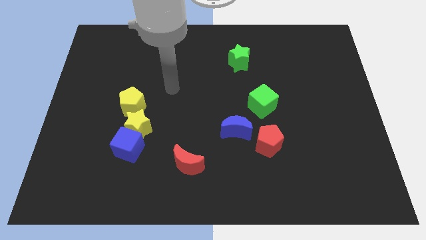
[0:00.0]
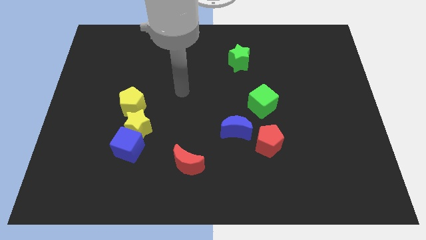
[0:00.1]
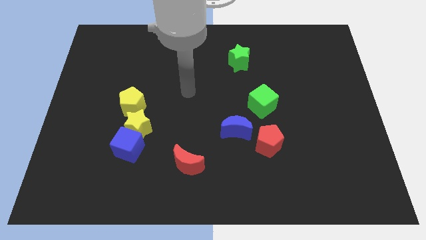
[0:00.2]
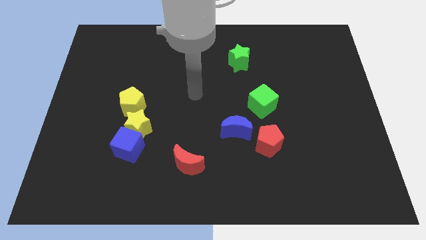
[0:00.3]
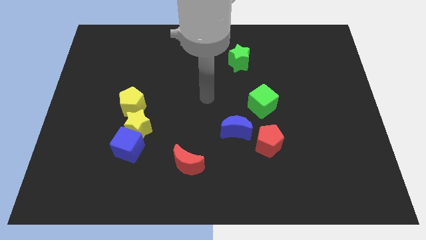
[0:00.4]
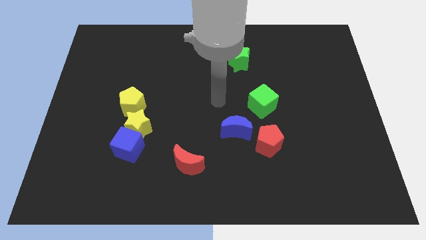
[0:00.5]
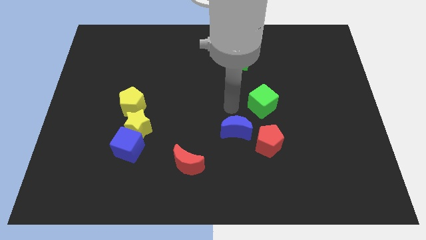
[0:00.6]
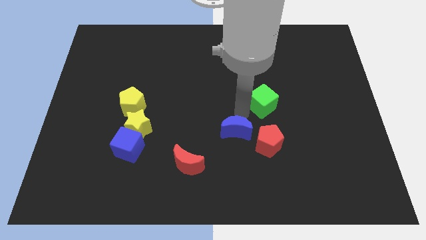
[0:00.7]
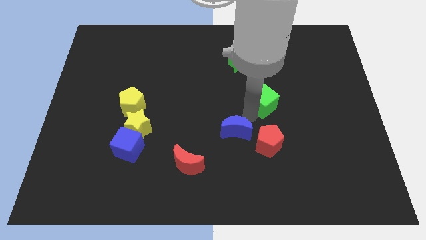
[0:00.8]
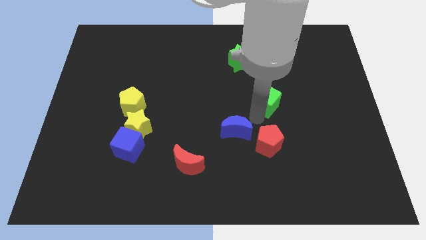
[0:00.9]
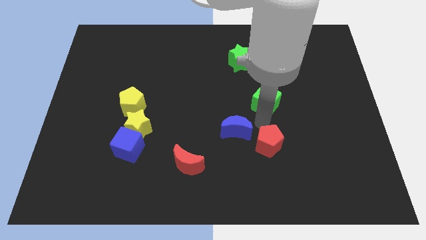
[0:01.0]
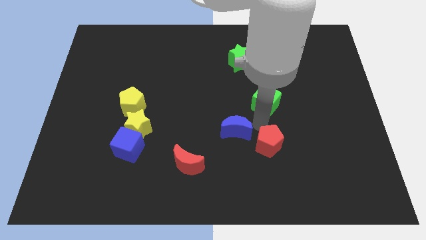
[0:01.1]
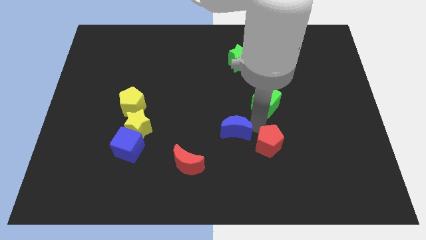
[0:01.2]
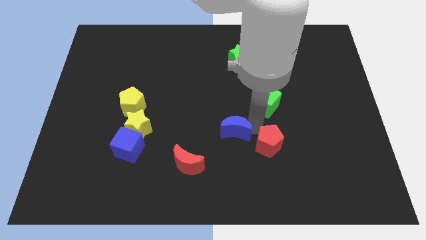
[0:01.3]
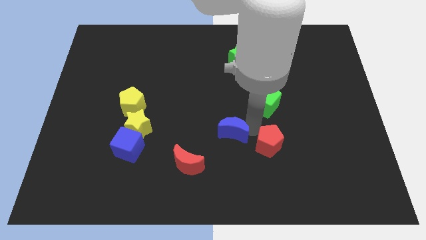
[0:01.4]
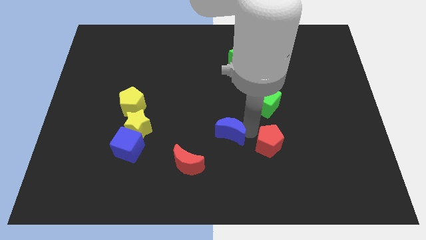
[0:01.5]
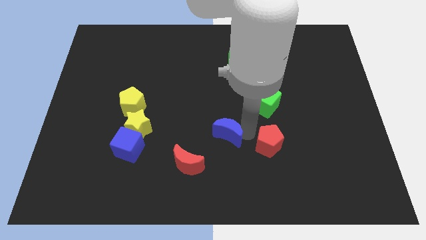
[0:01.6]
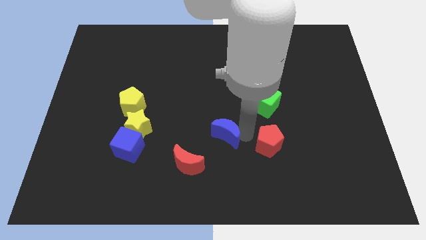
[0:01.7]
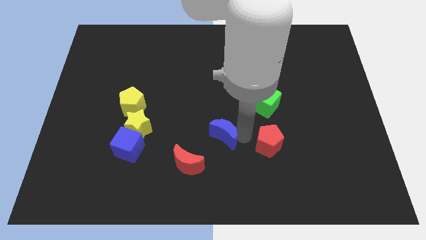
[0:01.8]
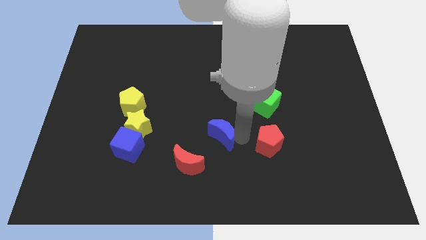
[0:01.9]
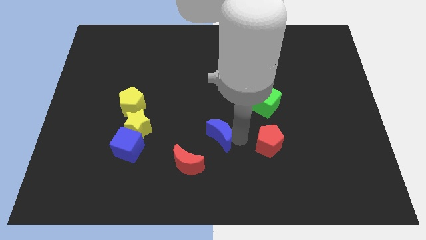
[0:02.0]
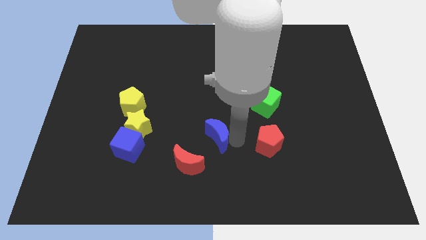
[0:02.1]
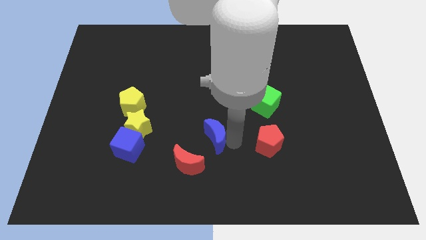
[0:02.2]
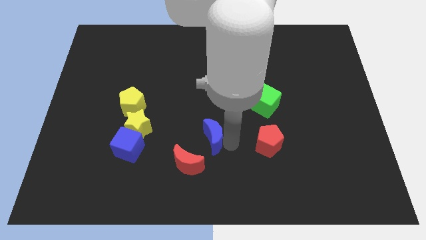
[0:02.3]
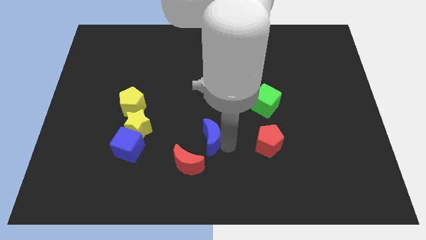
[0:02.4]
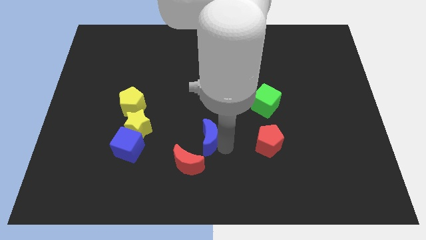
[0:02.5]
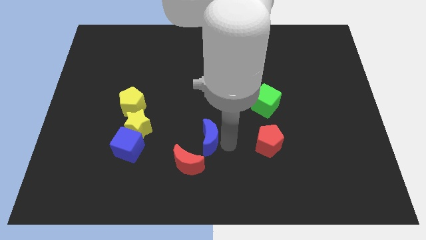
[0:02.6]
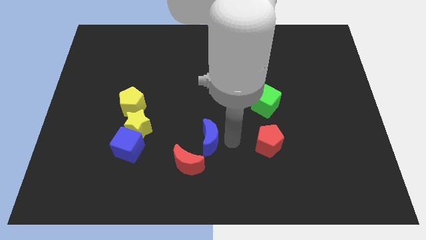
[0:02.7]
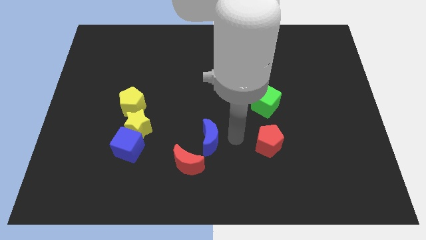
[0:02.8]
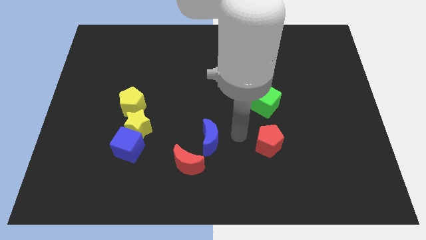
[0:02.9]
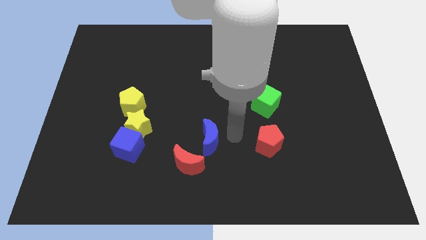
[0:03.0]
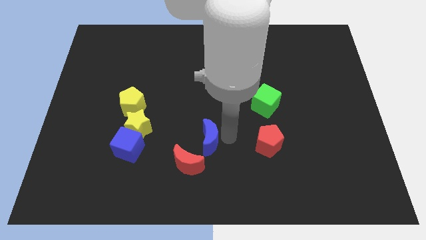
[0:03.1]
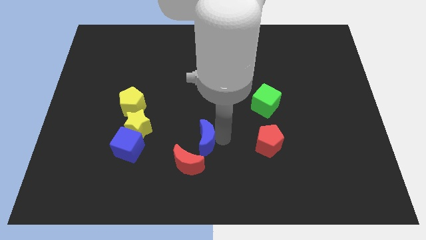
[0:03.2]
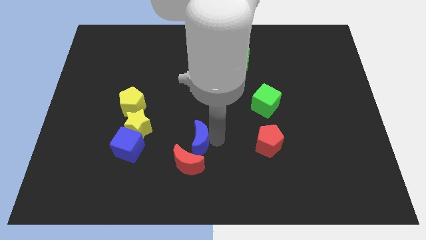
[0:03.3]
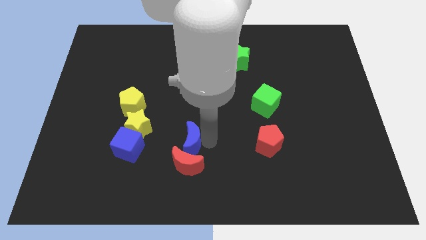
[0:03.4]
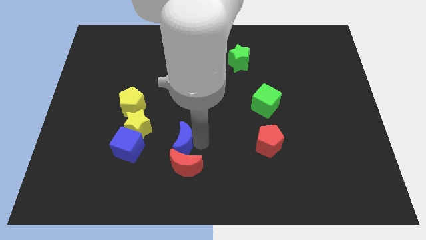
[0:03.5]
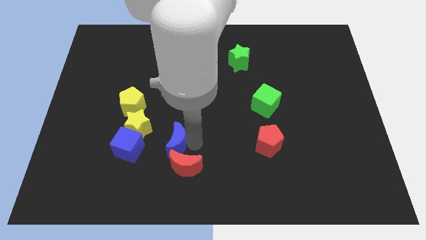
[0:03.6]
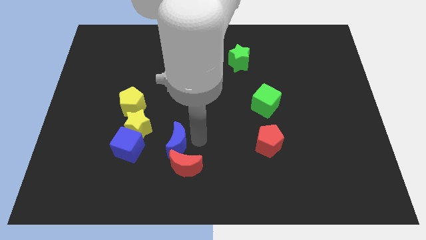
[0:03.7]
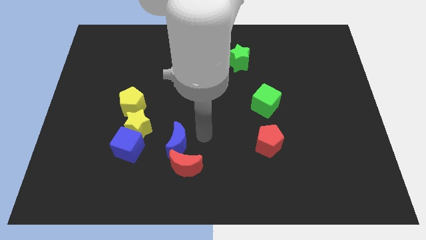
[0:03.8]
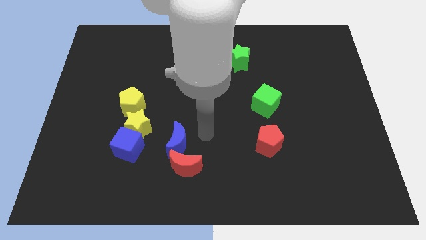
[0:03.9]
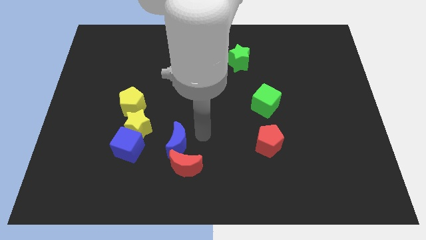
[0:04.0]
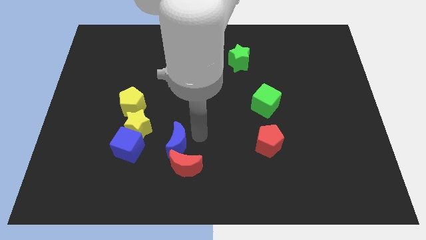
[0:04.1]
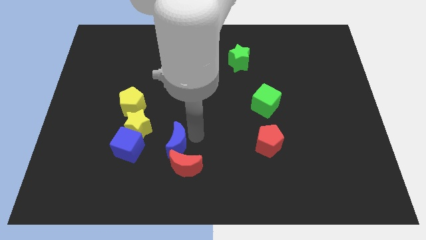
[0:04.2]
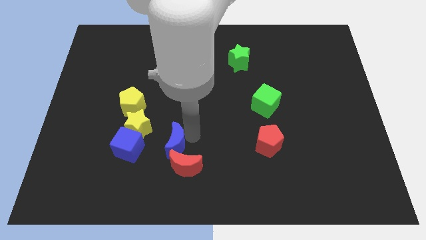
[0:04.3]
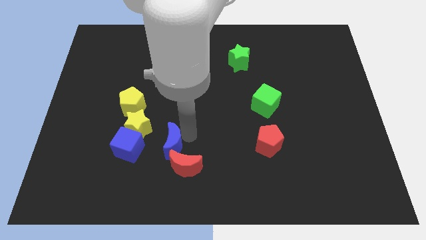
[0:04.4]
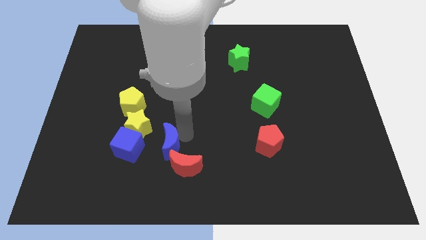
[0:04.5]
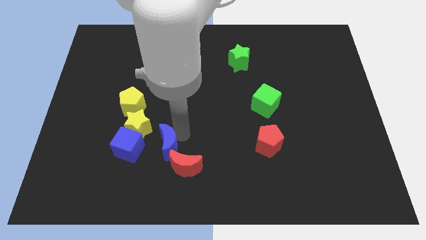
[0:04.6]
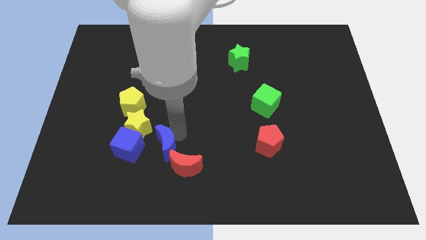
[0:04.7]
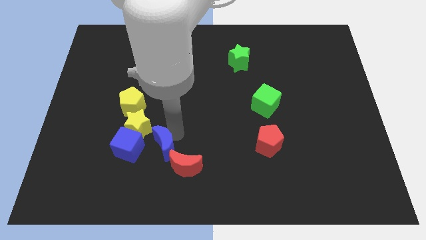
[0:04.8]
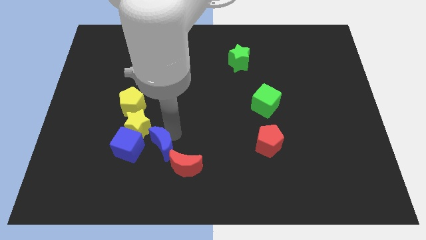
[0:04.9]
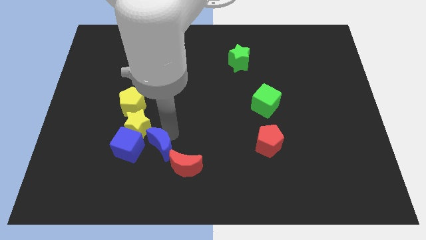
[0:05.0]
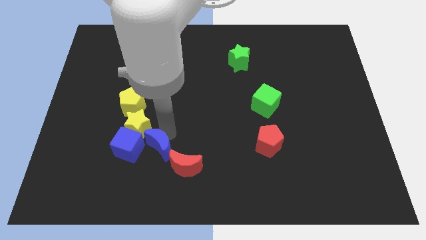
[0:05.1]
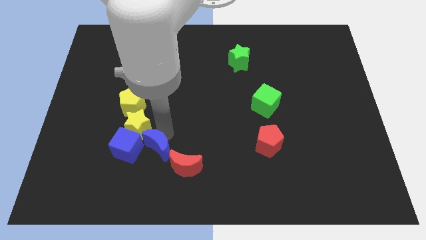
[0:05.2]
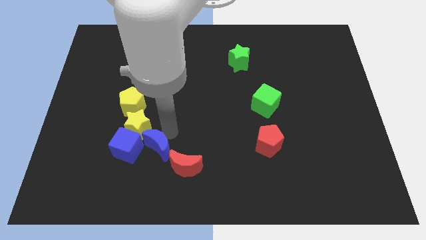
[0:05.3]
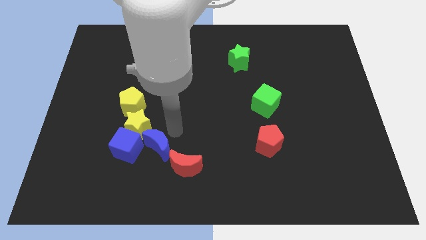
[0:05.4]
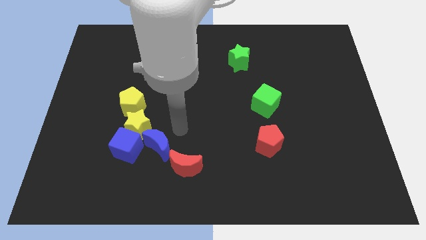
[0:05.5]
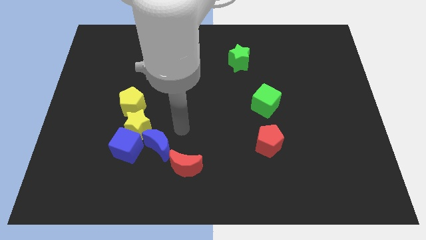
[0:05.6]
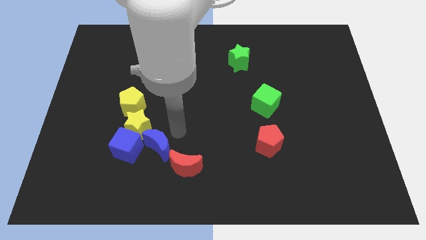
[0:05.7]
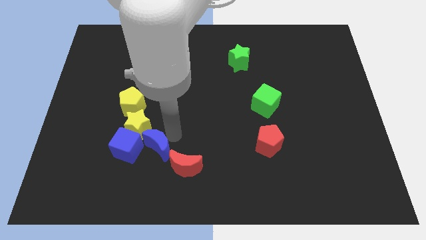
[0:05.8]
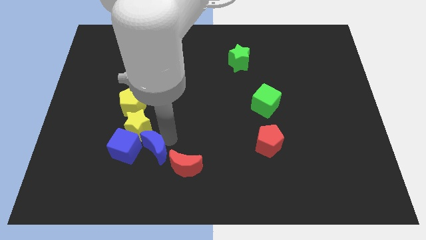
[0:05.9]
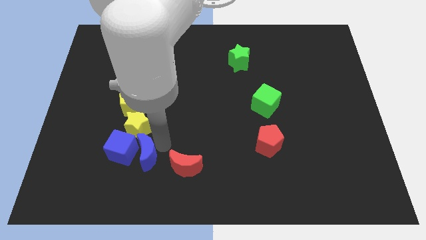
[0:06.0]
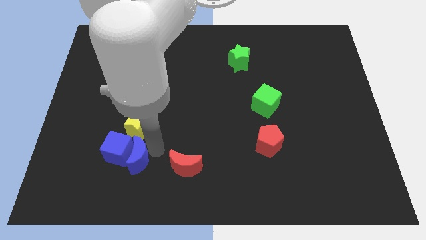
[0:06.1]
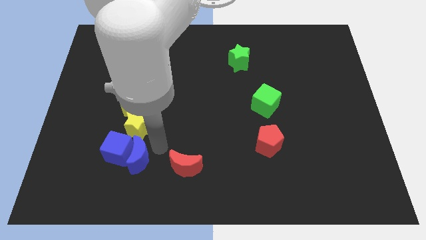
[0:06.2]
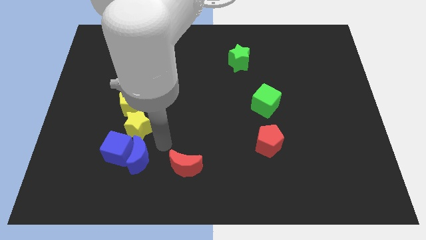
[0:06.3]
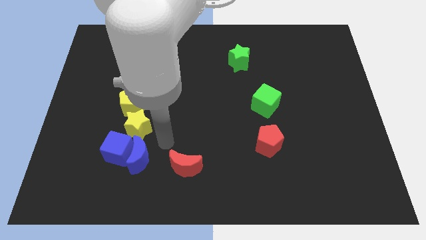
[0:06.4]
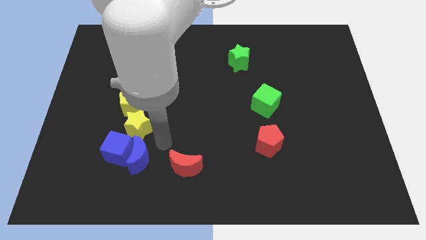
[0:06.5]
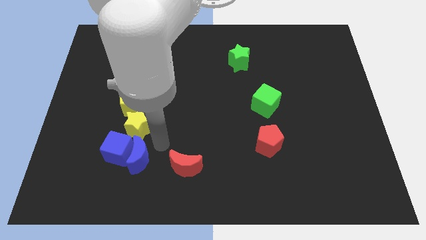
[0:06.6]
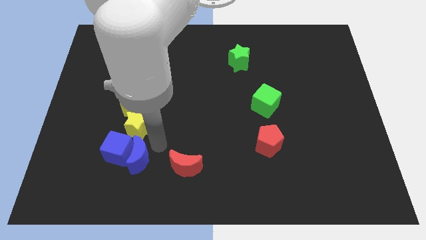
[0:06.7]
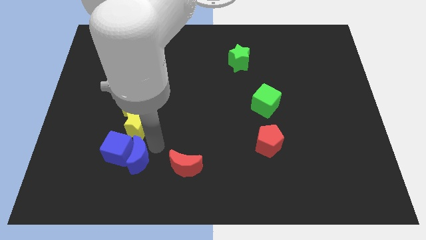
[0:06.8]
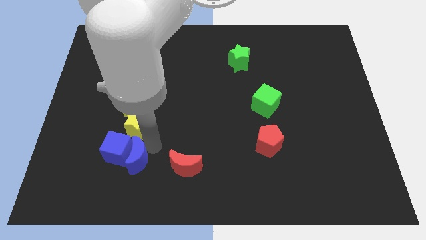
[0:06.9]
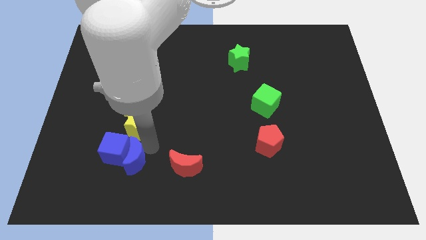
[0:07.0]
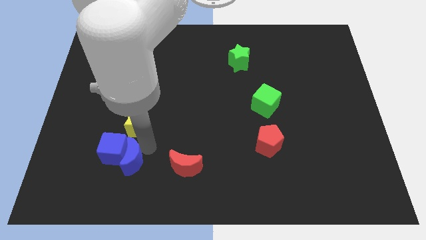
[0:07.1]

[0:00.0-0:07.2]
push the blue moon to the left

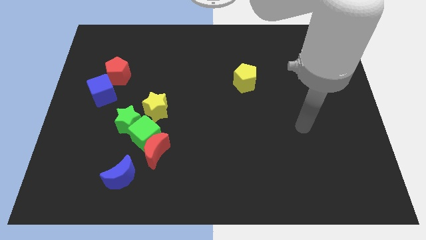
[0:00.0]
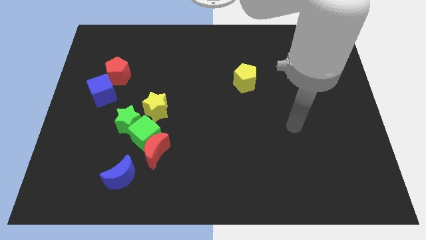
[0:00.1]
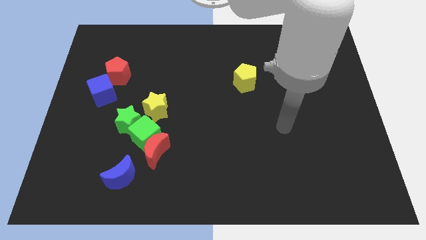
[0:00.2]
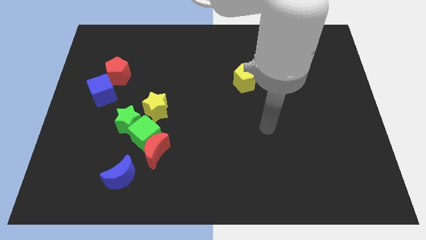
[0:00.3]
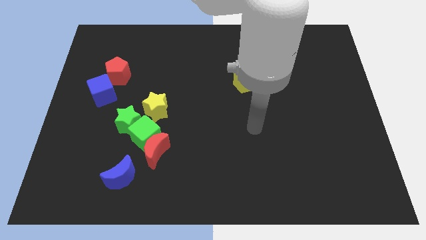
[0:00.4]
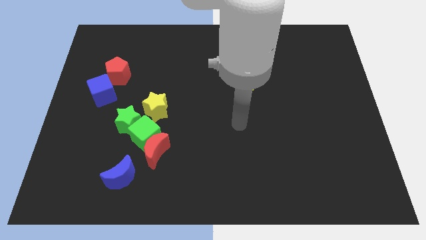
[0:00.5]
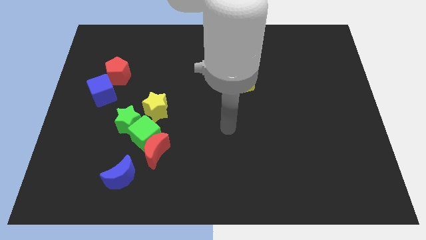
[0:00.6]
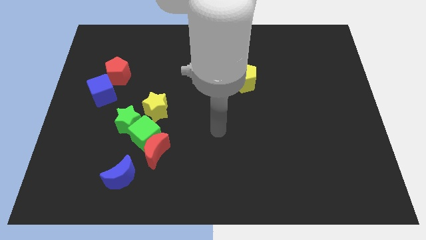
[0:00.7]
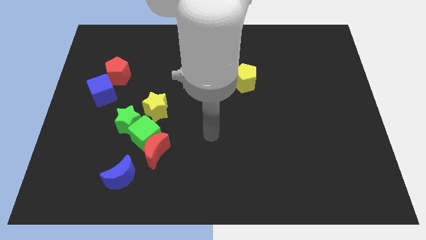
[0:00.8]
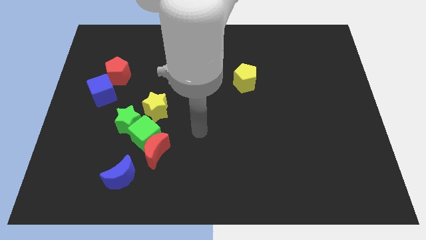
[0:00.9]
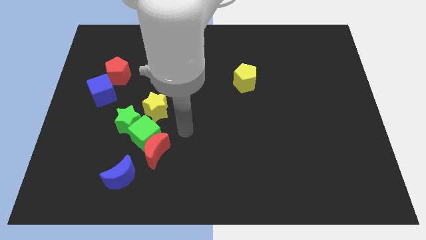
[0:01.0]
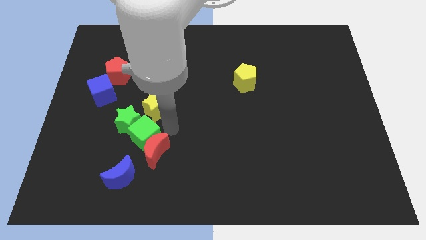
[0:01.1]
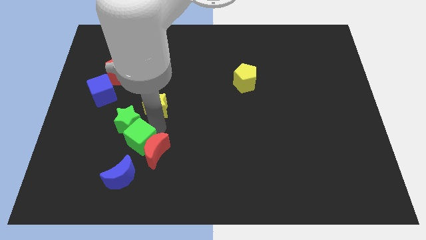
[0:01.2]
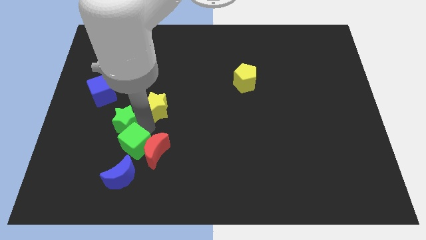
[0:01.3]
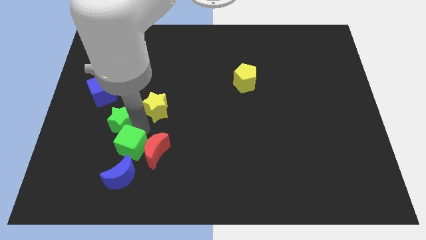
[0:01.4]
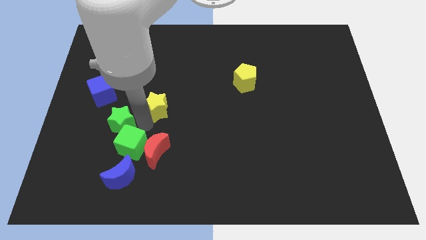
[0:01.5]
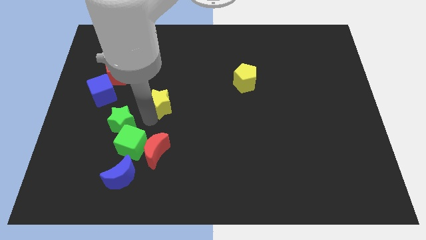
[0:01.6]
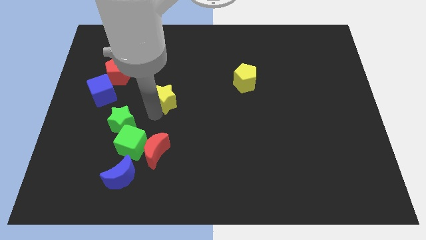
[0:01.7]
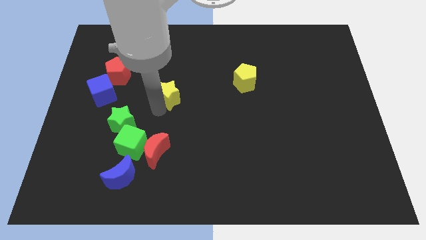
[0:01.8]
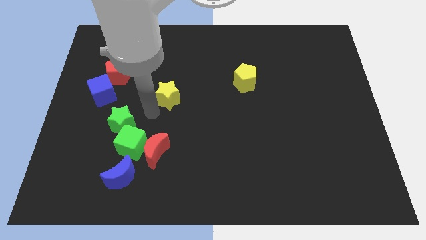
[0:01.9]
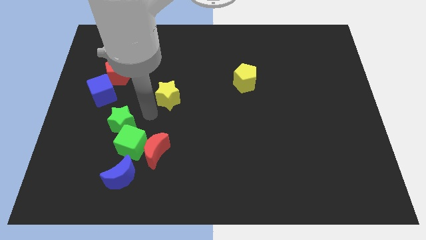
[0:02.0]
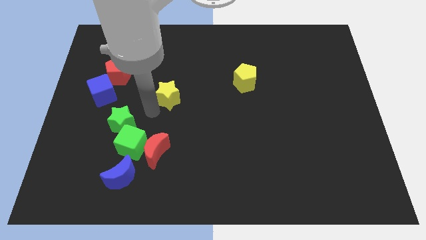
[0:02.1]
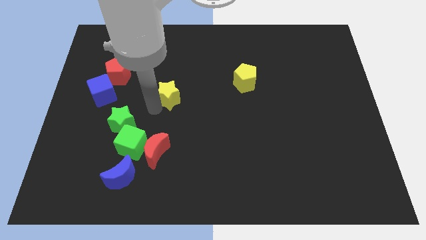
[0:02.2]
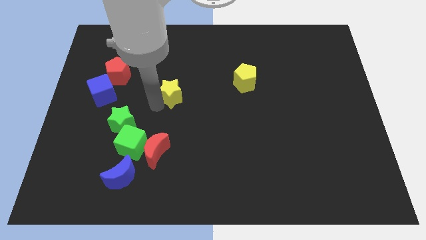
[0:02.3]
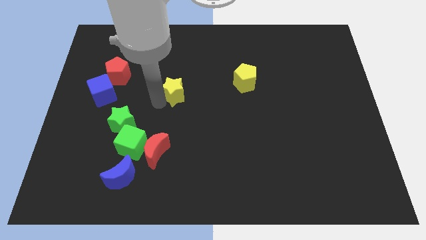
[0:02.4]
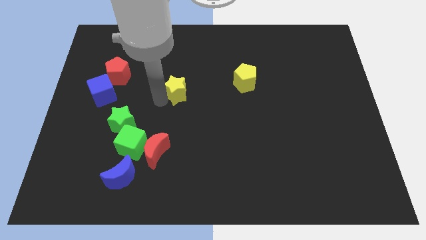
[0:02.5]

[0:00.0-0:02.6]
move the yellow star a bit upwards and to the right
